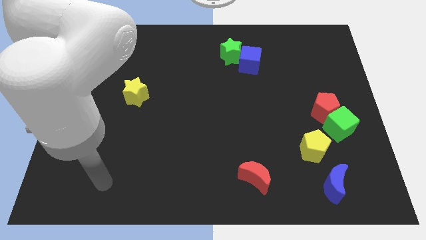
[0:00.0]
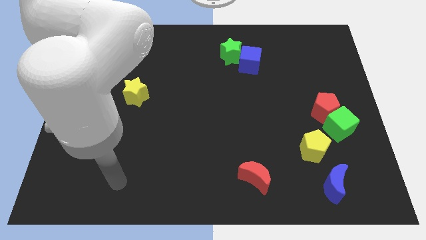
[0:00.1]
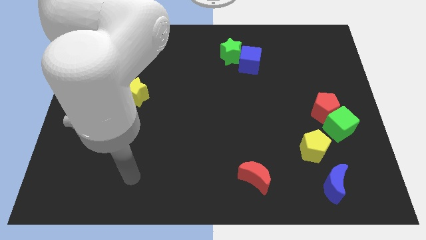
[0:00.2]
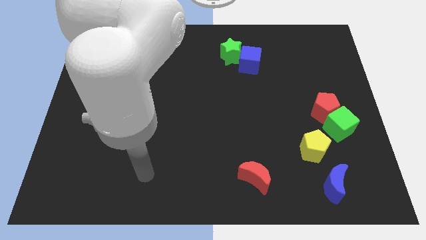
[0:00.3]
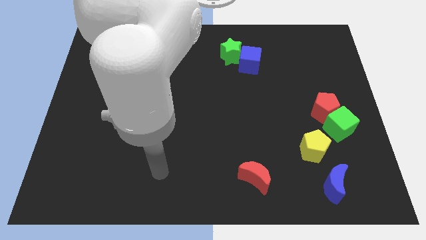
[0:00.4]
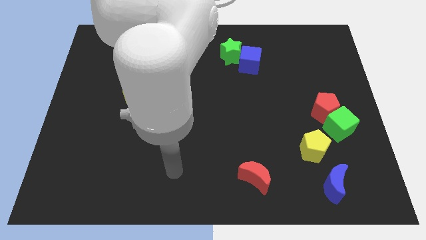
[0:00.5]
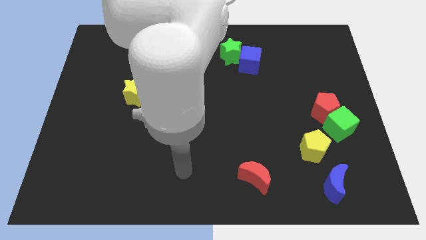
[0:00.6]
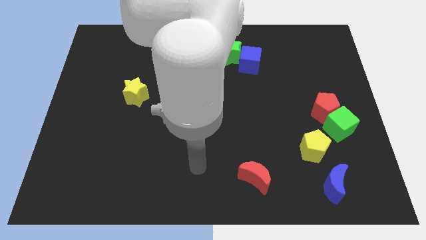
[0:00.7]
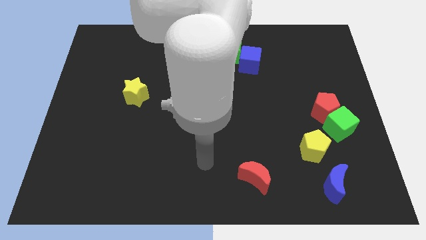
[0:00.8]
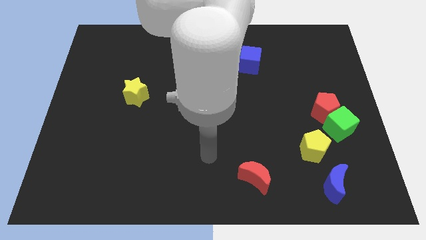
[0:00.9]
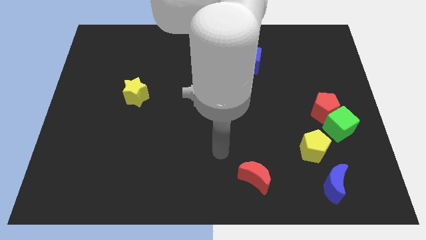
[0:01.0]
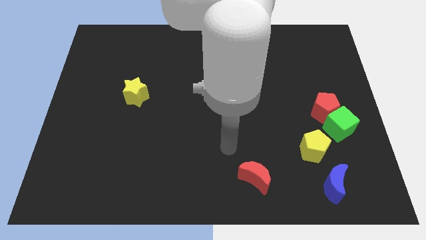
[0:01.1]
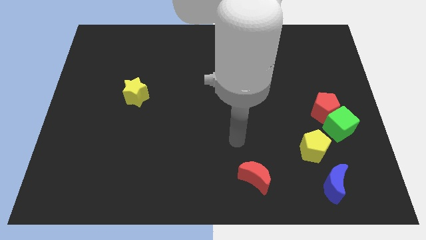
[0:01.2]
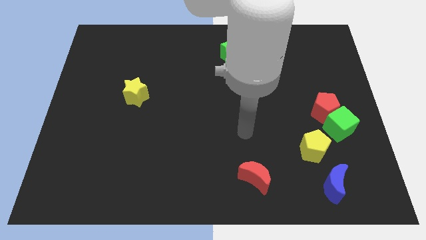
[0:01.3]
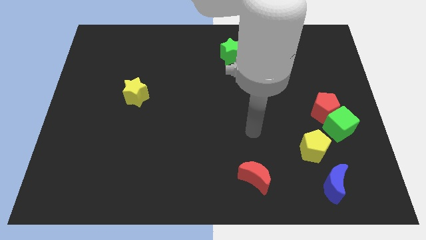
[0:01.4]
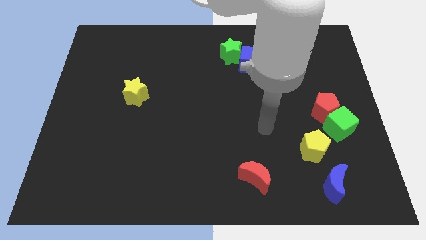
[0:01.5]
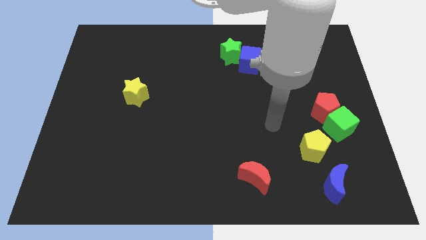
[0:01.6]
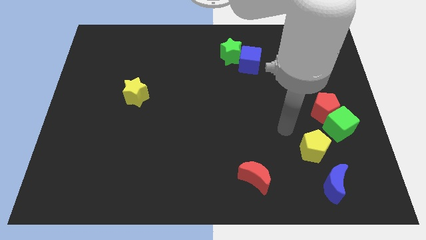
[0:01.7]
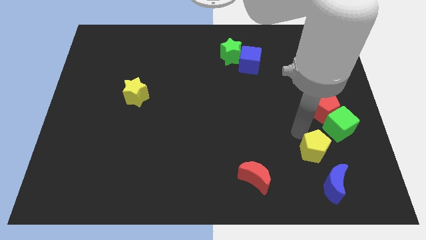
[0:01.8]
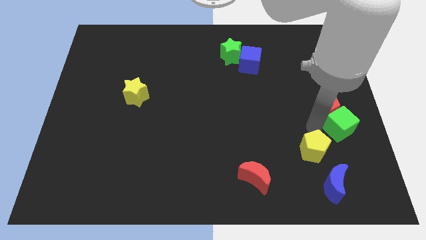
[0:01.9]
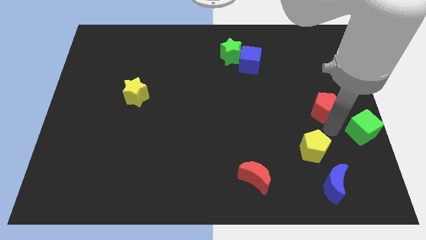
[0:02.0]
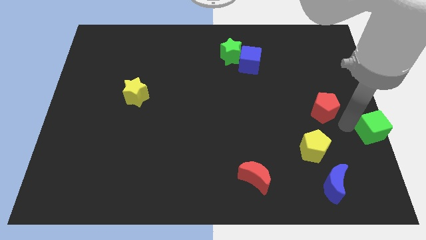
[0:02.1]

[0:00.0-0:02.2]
pull the red pentagon apart from the green cube

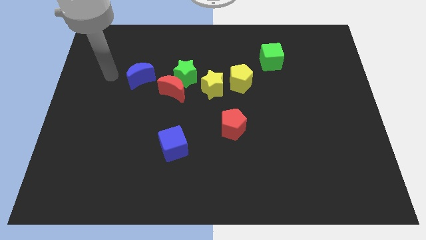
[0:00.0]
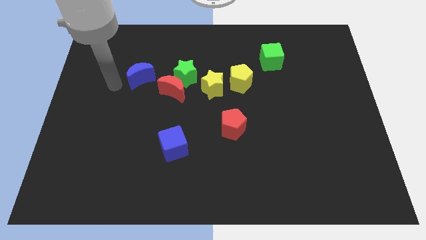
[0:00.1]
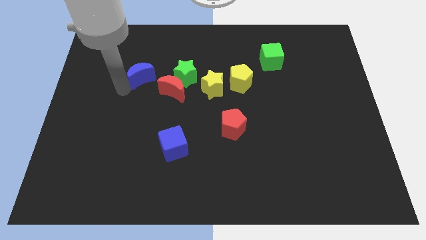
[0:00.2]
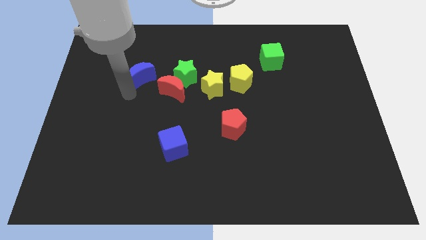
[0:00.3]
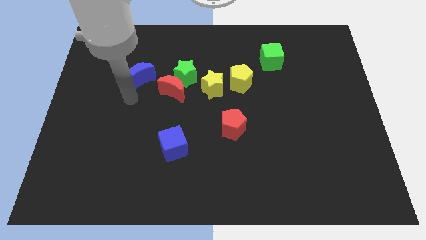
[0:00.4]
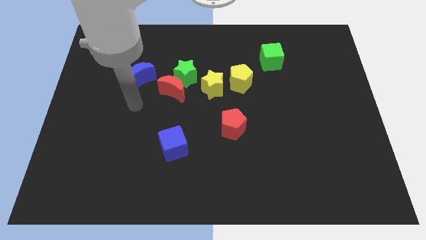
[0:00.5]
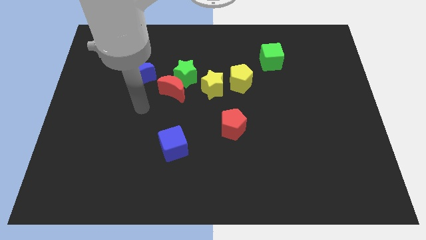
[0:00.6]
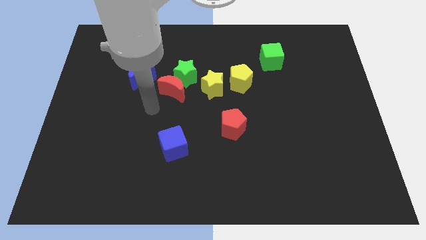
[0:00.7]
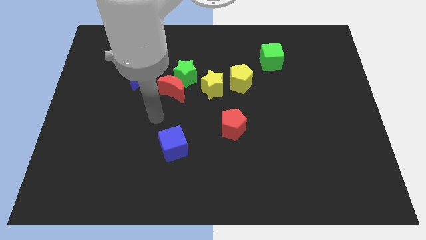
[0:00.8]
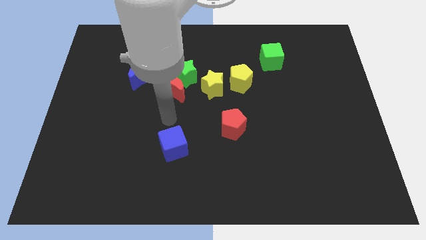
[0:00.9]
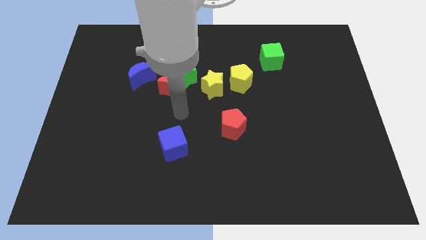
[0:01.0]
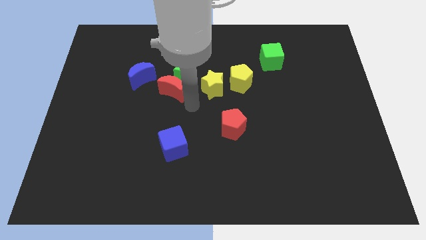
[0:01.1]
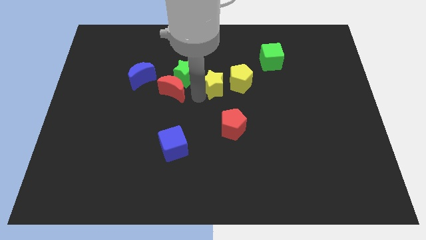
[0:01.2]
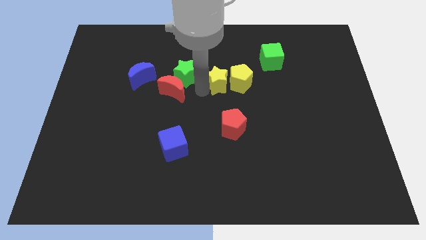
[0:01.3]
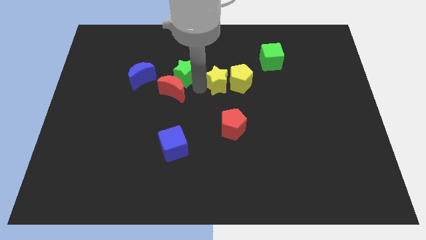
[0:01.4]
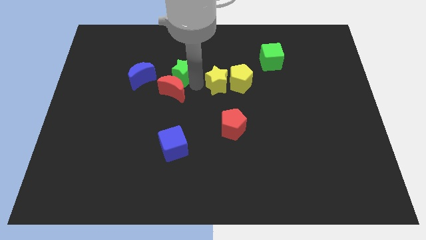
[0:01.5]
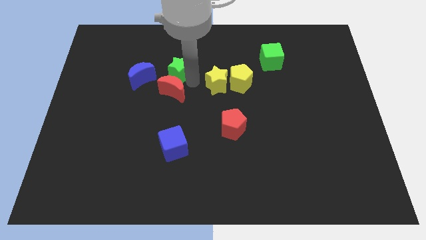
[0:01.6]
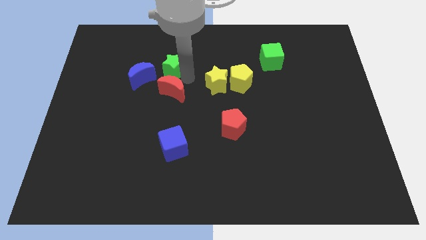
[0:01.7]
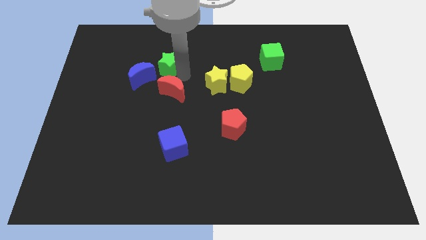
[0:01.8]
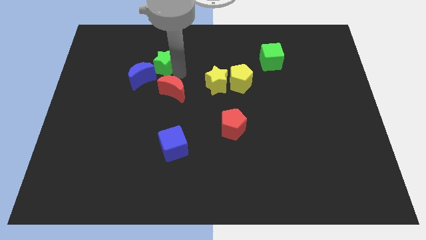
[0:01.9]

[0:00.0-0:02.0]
separate the green star from the red moon and yellow star

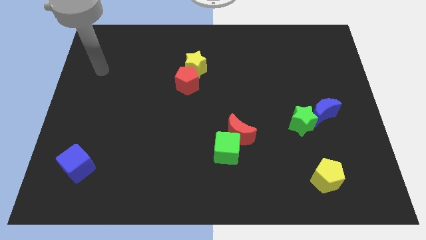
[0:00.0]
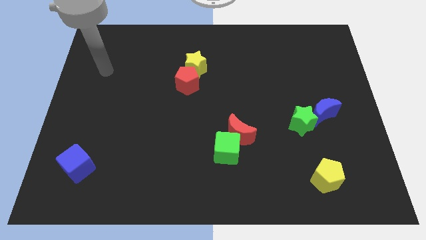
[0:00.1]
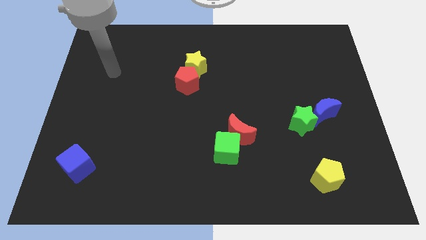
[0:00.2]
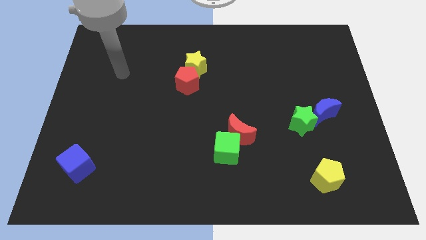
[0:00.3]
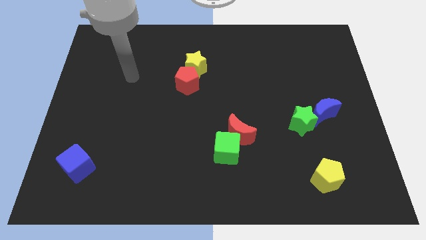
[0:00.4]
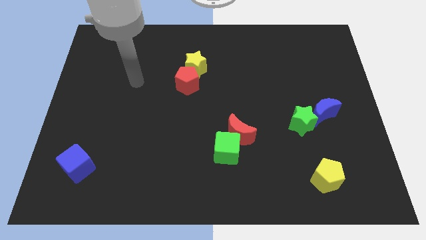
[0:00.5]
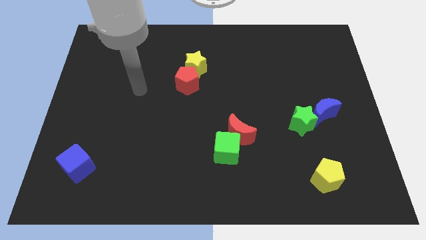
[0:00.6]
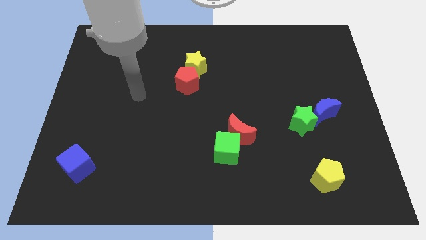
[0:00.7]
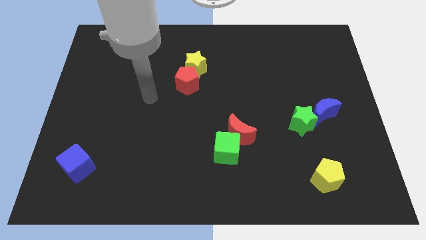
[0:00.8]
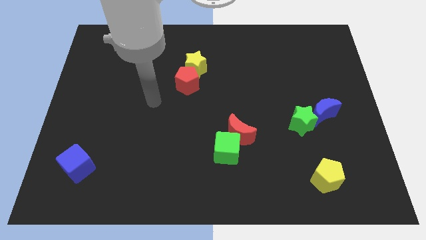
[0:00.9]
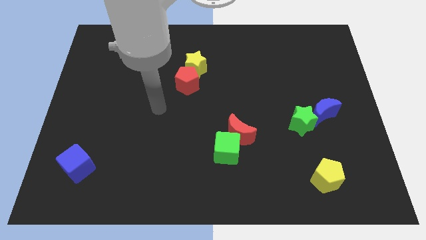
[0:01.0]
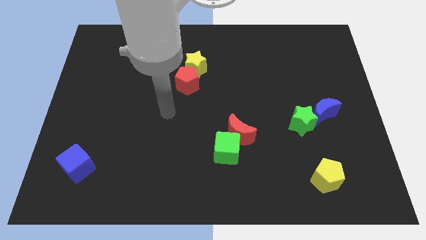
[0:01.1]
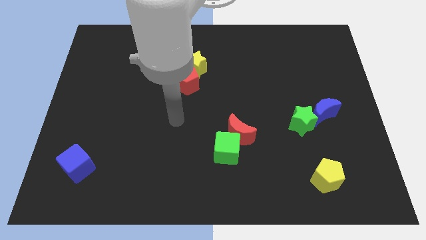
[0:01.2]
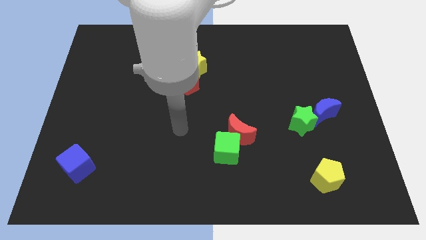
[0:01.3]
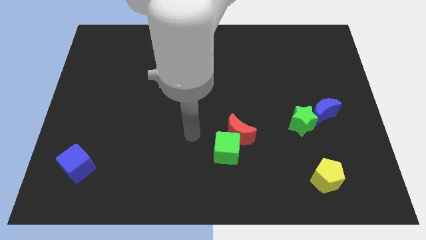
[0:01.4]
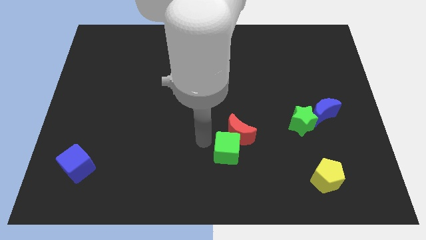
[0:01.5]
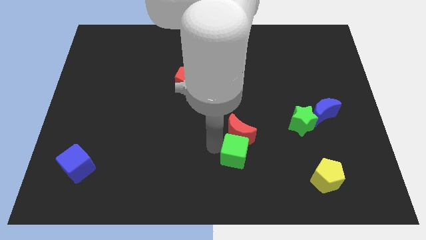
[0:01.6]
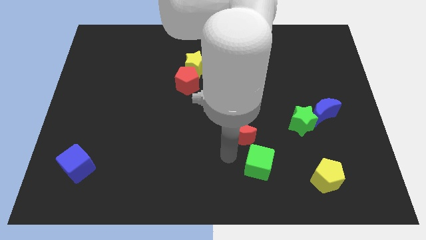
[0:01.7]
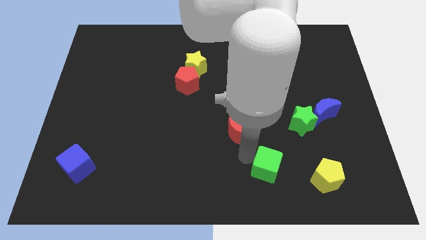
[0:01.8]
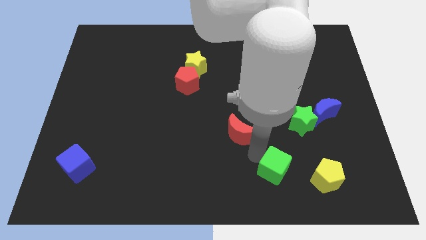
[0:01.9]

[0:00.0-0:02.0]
pull the red moon apart from the green cube

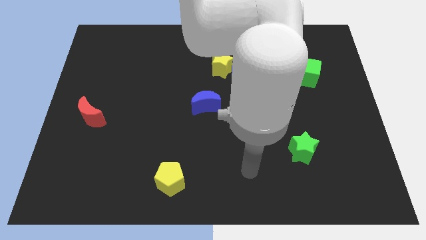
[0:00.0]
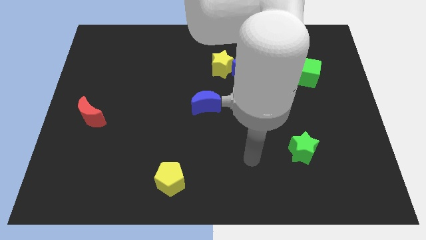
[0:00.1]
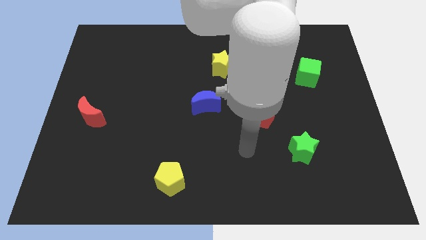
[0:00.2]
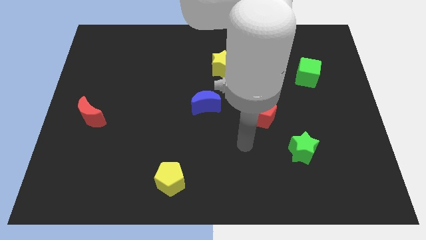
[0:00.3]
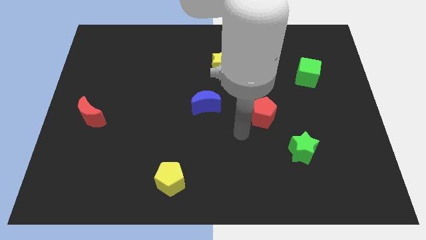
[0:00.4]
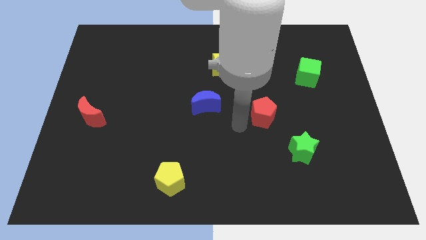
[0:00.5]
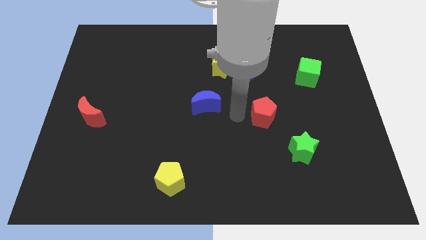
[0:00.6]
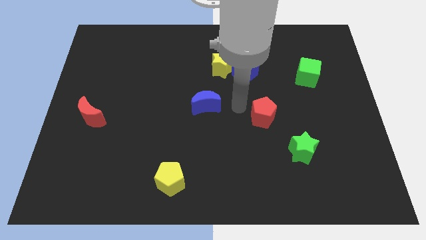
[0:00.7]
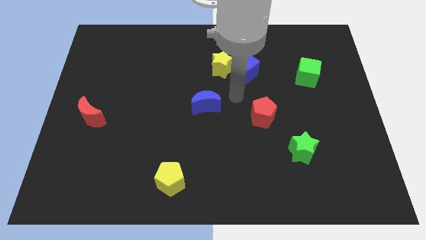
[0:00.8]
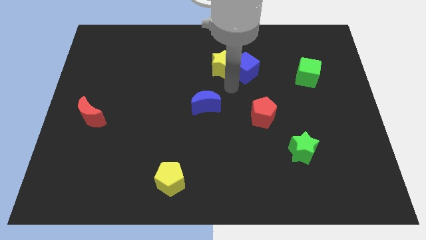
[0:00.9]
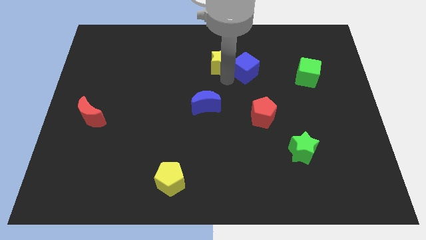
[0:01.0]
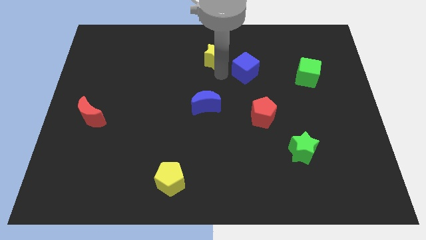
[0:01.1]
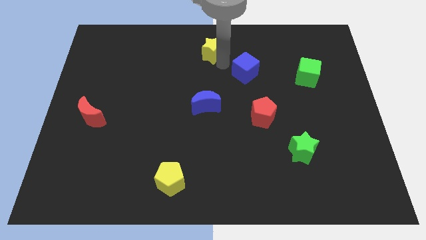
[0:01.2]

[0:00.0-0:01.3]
pull the blue cube apart from the yellow star

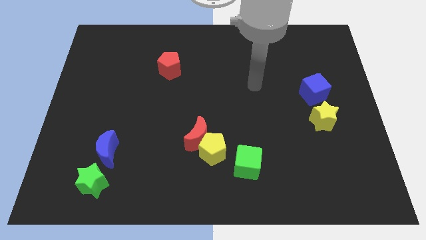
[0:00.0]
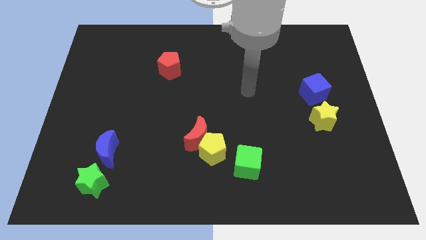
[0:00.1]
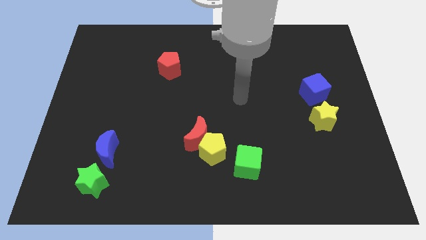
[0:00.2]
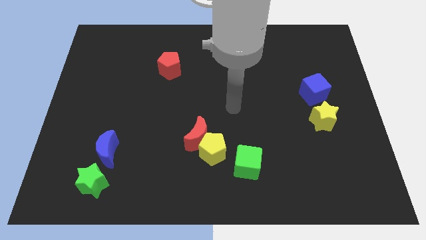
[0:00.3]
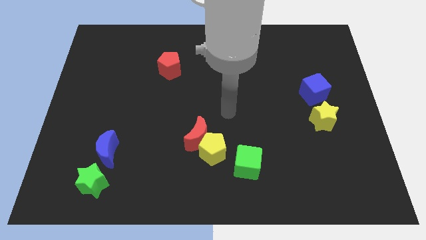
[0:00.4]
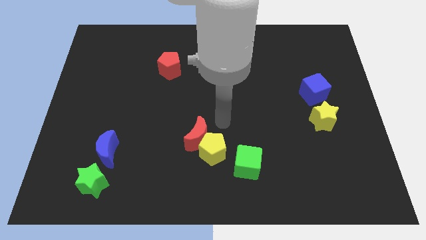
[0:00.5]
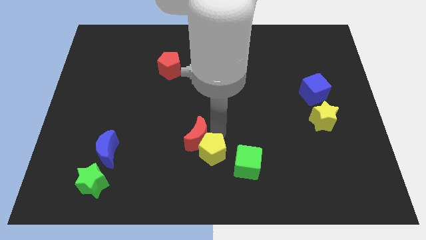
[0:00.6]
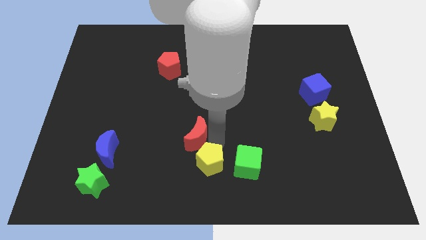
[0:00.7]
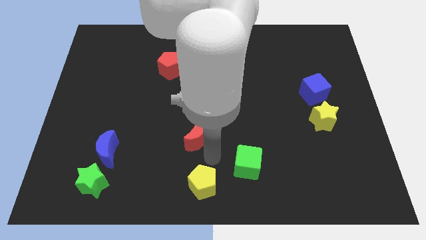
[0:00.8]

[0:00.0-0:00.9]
separate the red moon from the yellow pentagon

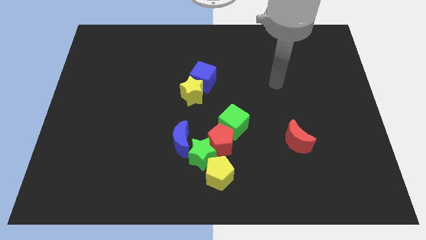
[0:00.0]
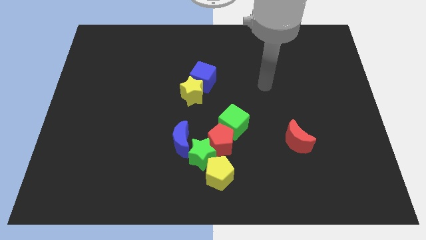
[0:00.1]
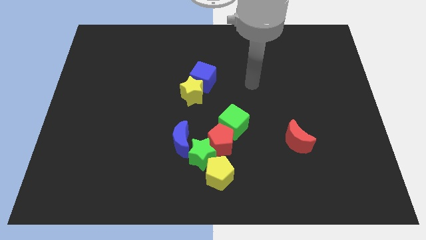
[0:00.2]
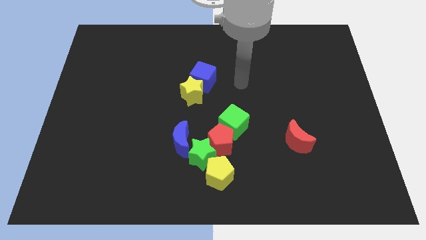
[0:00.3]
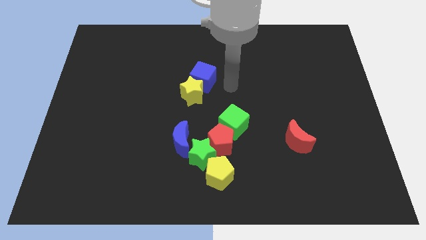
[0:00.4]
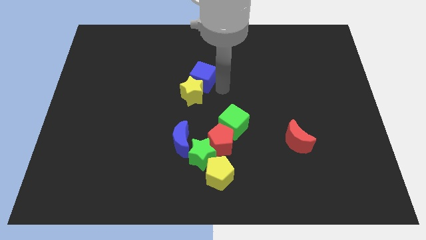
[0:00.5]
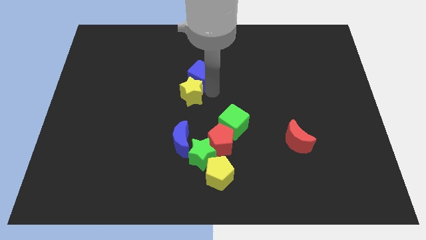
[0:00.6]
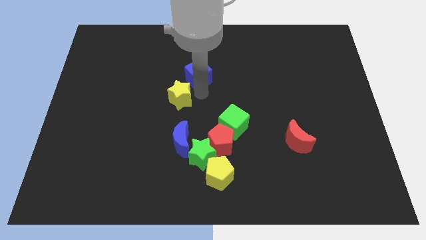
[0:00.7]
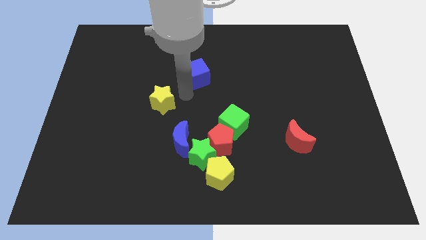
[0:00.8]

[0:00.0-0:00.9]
separate the blue cube from the yellow star
